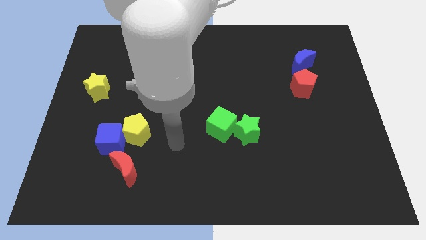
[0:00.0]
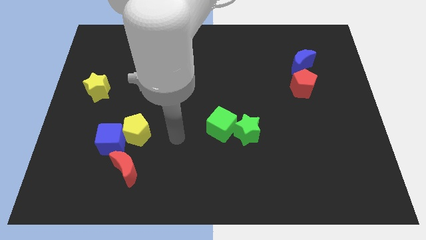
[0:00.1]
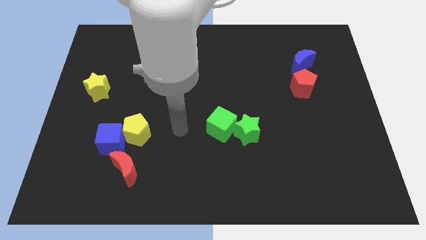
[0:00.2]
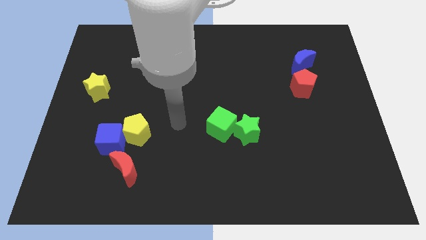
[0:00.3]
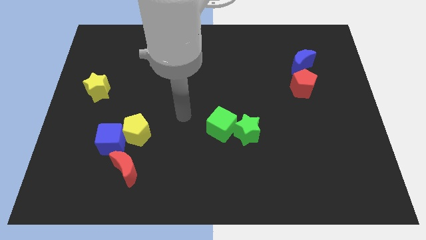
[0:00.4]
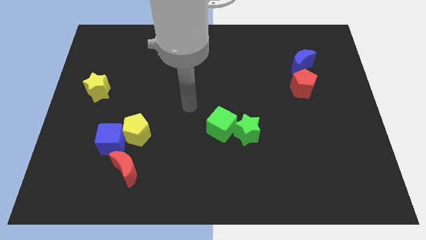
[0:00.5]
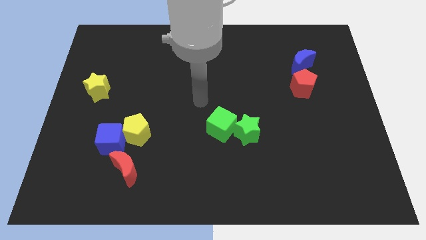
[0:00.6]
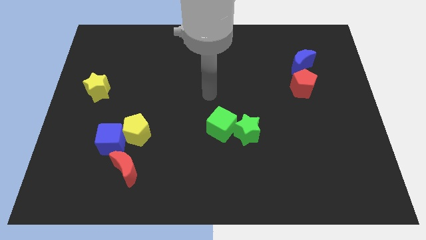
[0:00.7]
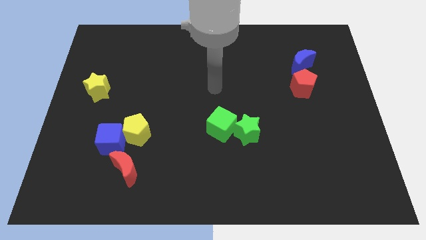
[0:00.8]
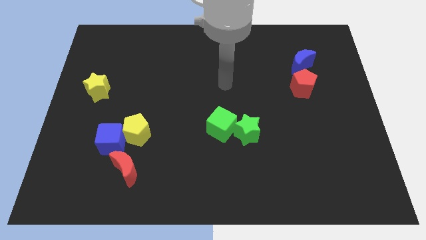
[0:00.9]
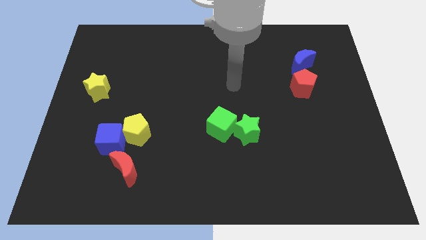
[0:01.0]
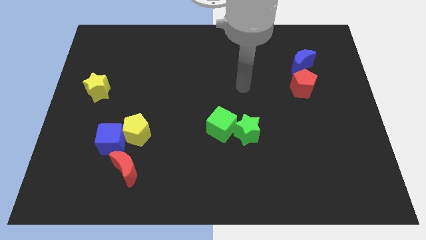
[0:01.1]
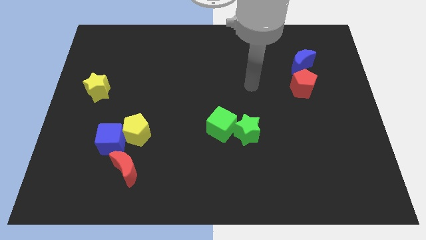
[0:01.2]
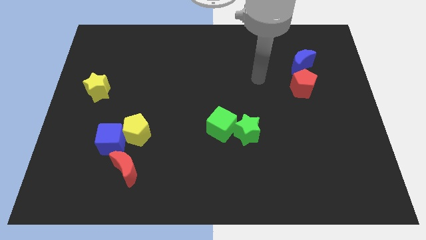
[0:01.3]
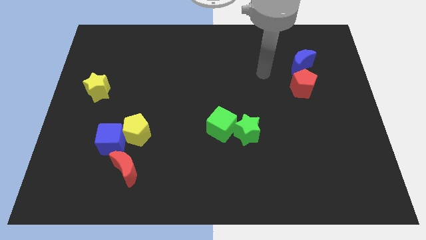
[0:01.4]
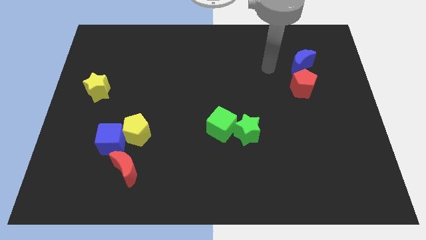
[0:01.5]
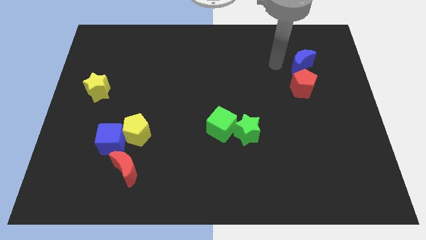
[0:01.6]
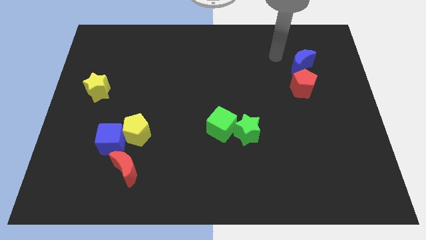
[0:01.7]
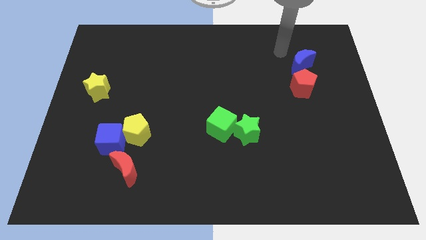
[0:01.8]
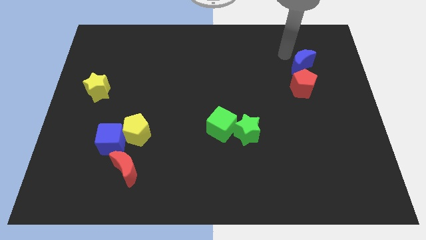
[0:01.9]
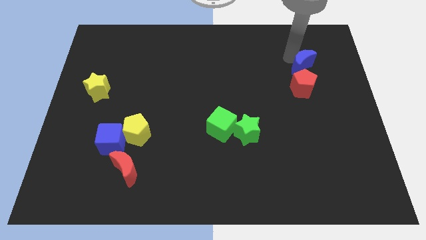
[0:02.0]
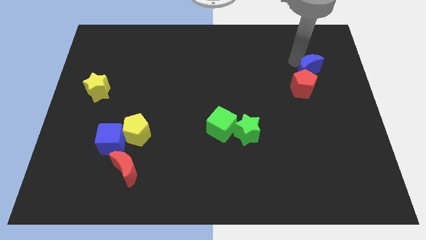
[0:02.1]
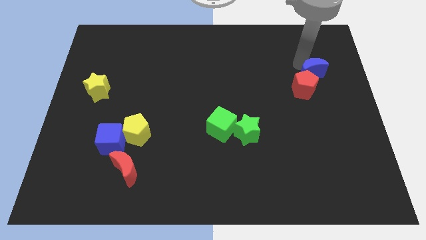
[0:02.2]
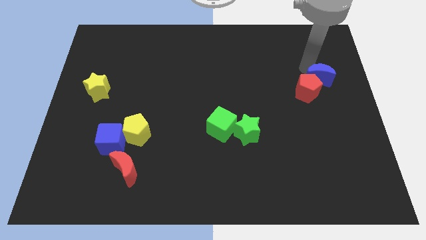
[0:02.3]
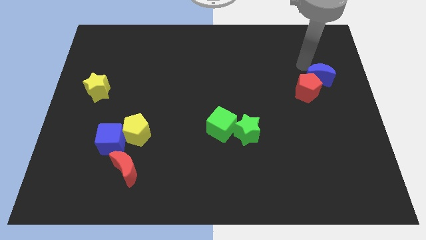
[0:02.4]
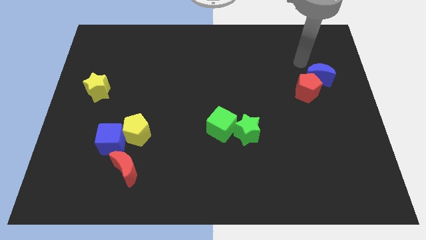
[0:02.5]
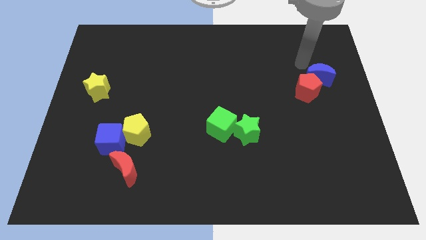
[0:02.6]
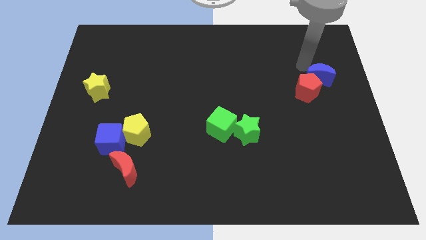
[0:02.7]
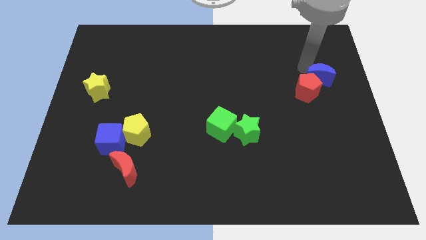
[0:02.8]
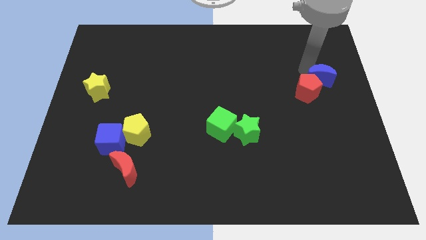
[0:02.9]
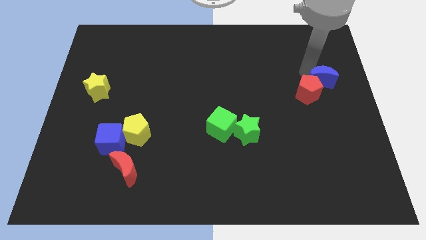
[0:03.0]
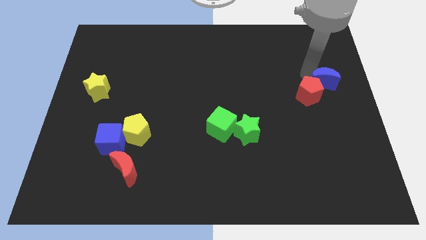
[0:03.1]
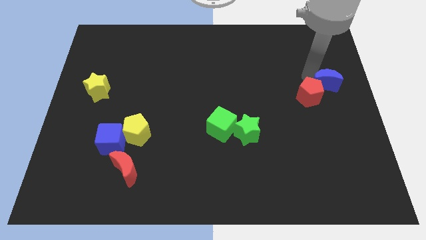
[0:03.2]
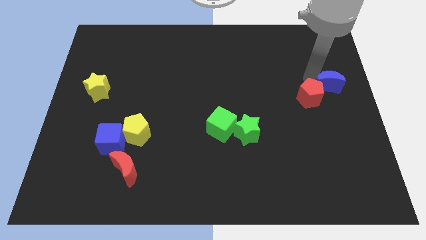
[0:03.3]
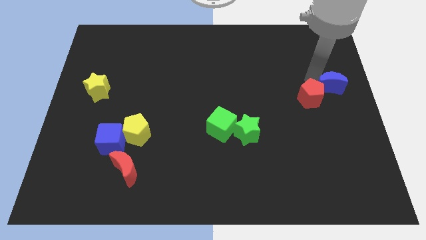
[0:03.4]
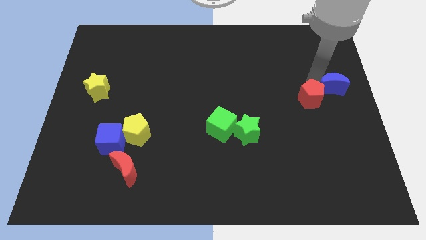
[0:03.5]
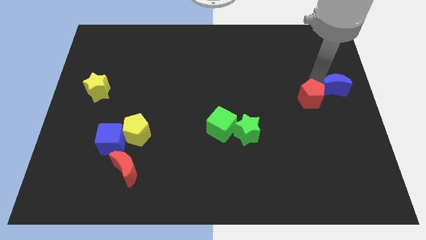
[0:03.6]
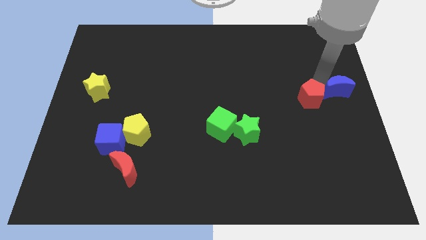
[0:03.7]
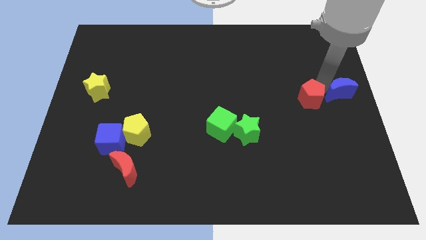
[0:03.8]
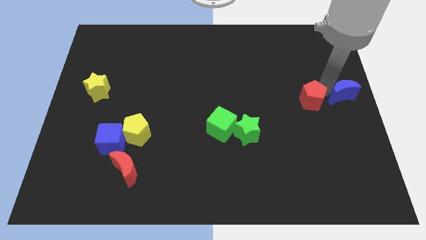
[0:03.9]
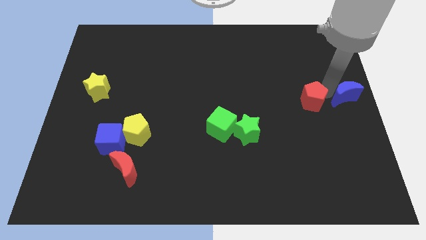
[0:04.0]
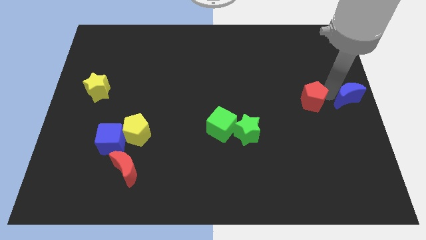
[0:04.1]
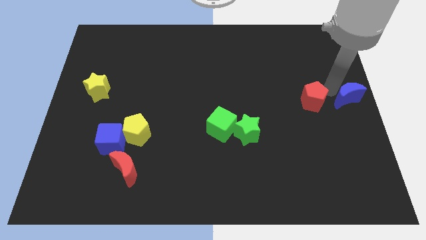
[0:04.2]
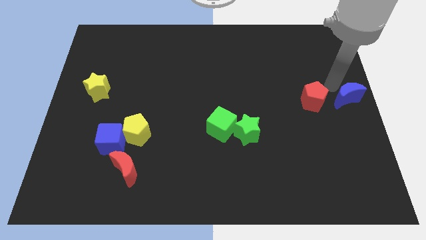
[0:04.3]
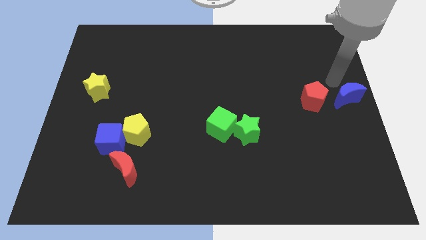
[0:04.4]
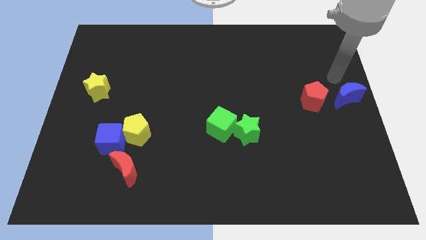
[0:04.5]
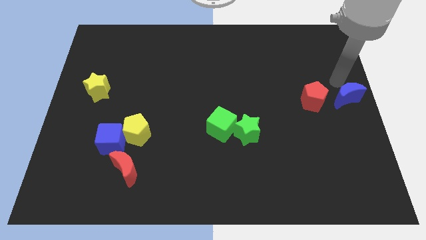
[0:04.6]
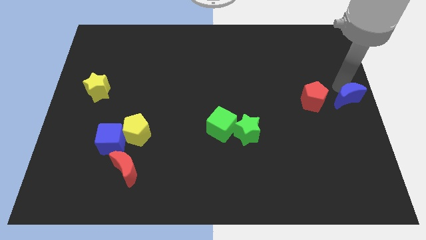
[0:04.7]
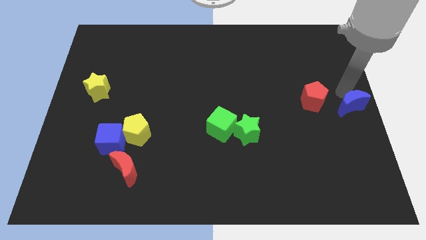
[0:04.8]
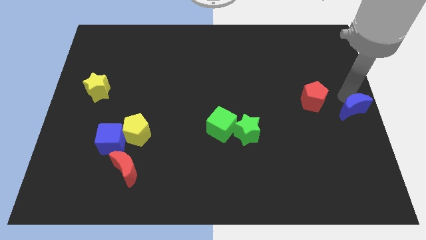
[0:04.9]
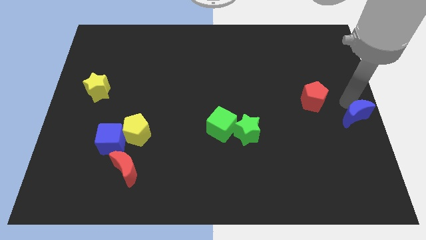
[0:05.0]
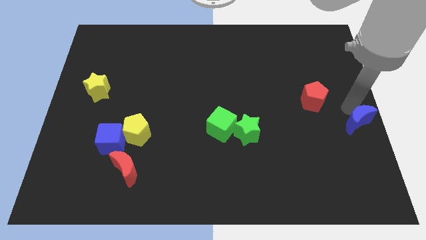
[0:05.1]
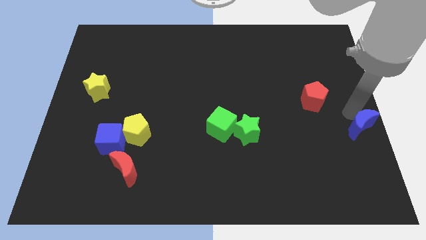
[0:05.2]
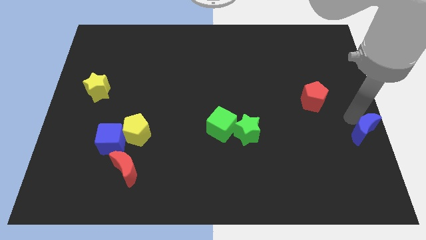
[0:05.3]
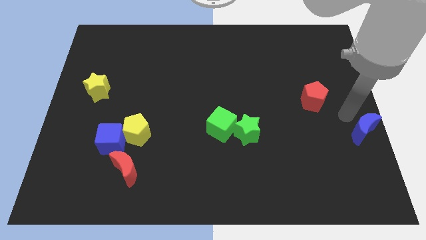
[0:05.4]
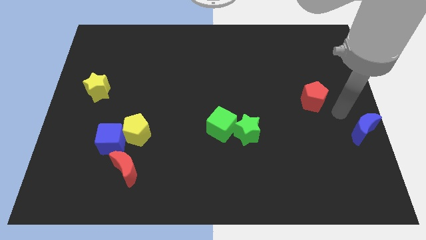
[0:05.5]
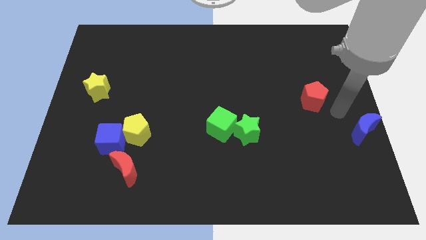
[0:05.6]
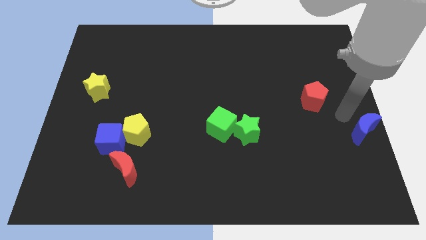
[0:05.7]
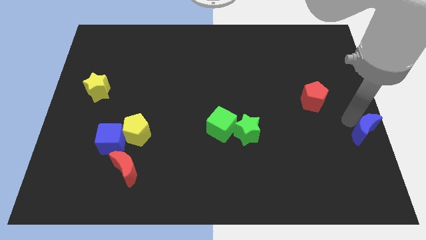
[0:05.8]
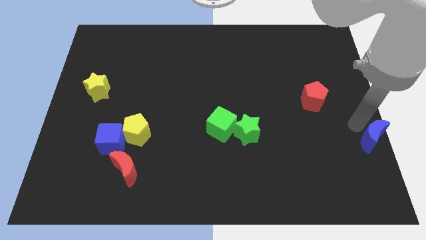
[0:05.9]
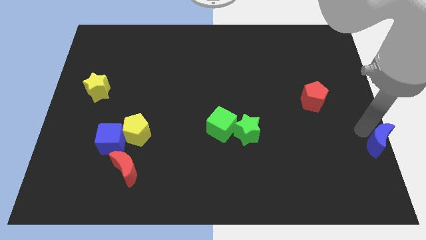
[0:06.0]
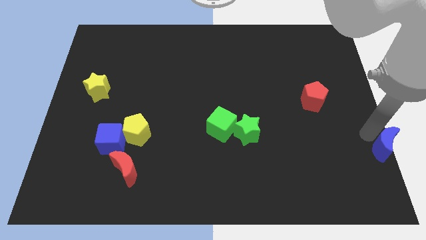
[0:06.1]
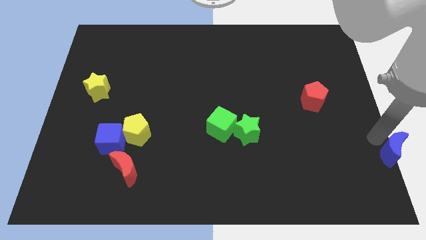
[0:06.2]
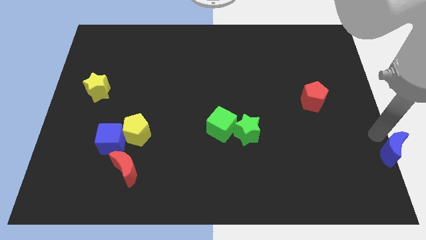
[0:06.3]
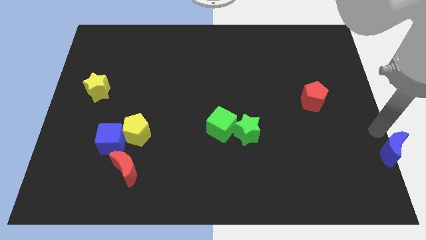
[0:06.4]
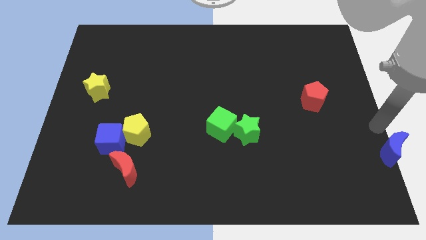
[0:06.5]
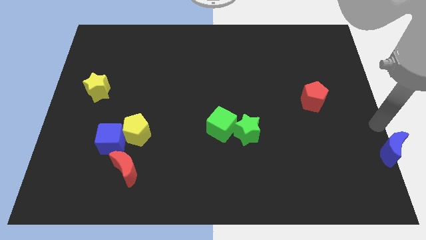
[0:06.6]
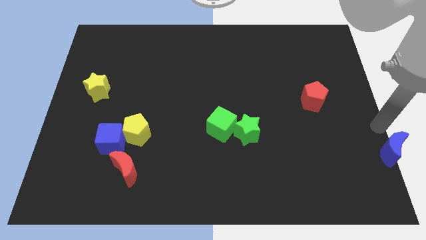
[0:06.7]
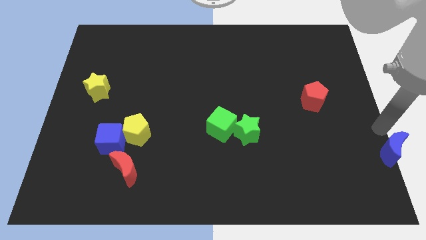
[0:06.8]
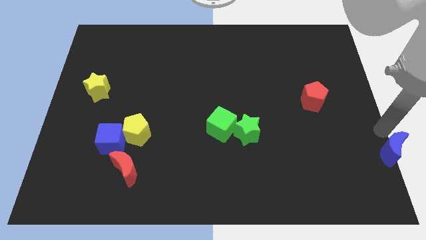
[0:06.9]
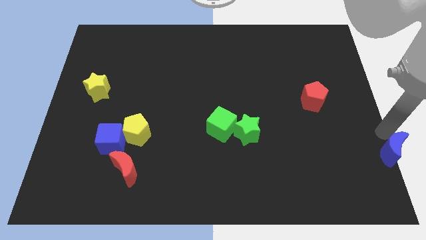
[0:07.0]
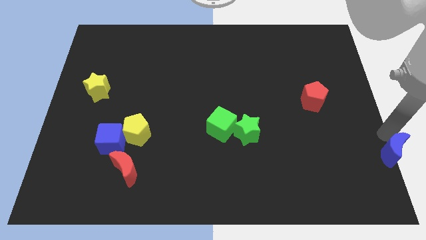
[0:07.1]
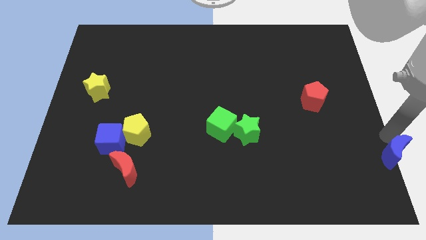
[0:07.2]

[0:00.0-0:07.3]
put the blue moon to the bottom right of the board
